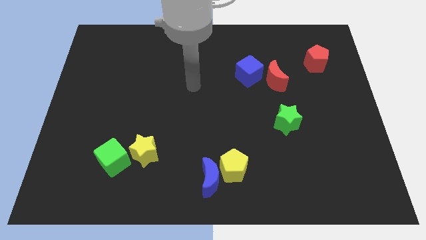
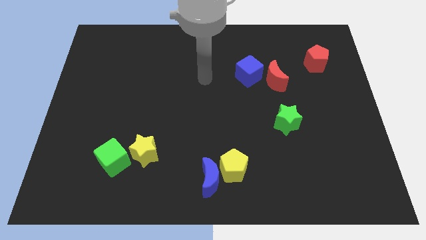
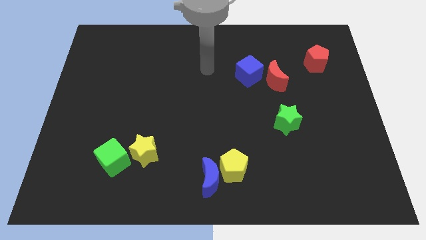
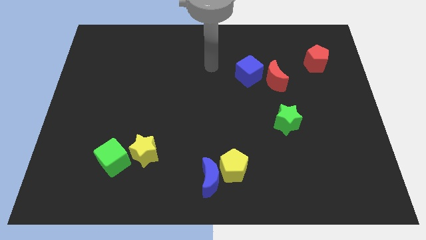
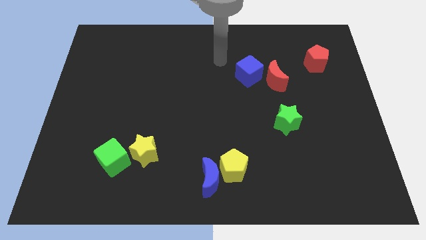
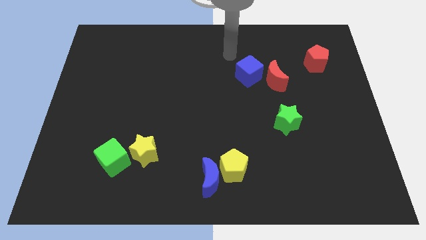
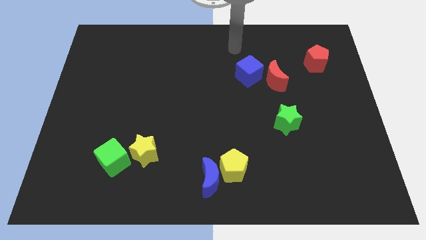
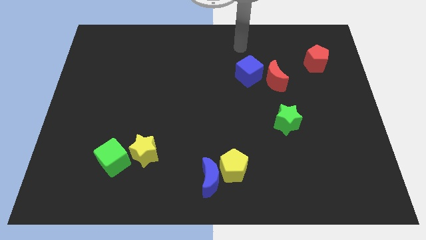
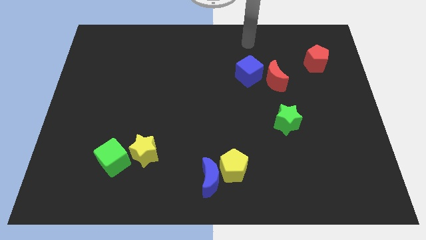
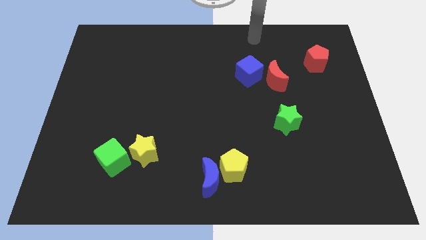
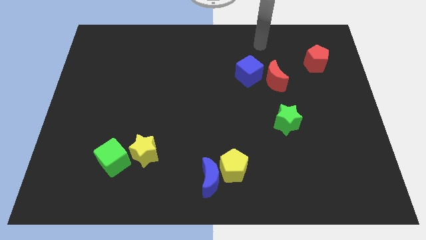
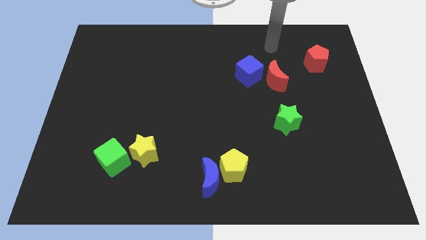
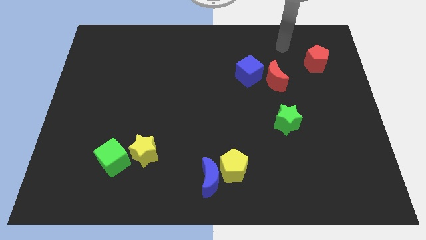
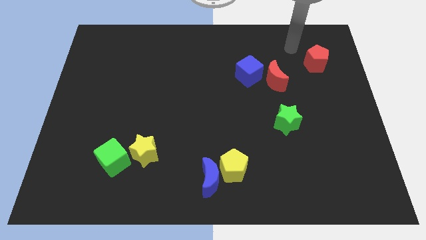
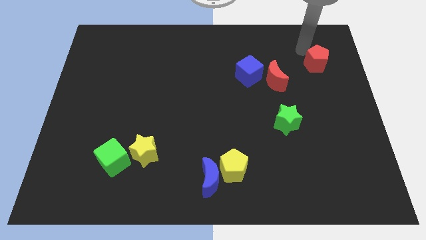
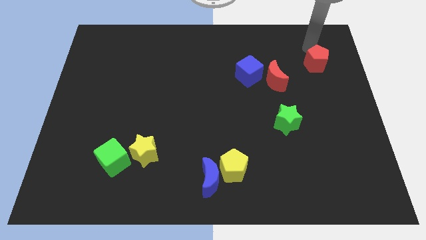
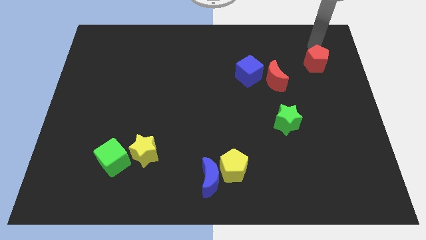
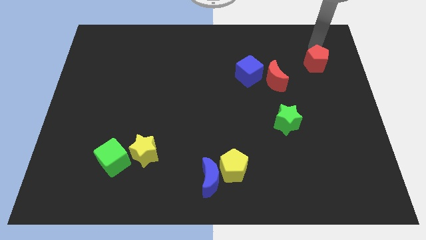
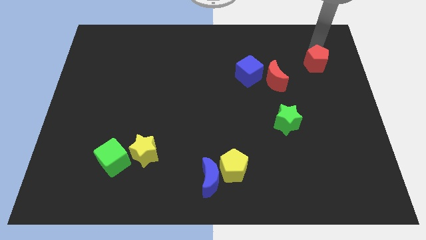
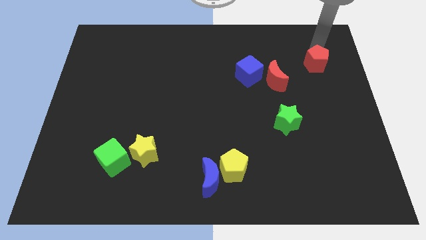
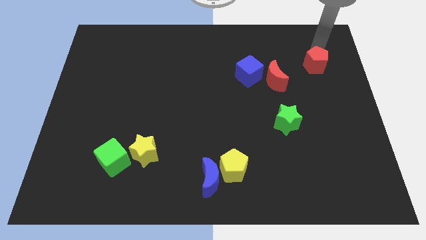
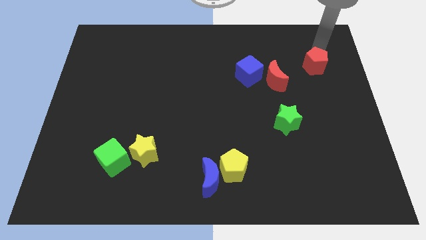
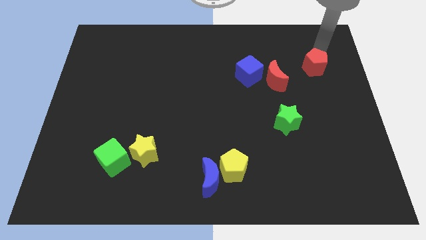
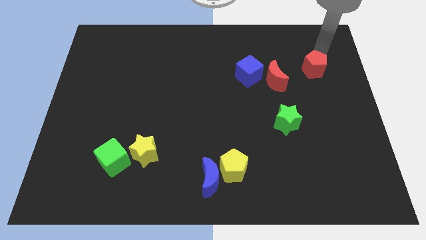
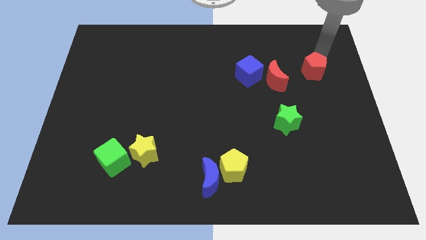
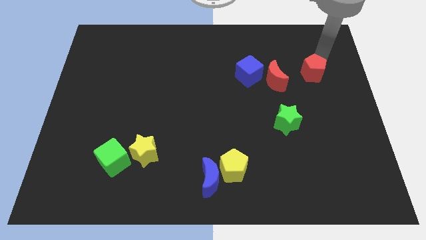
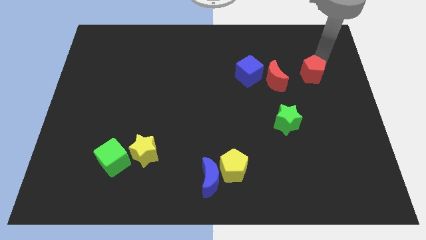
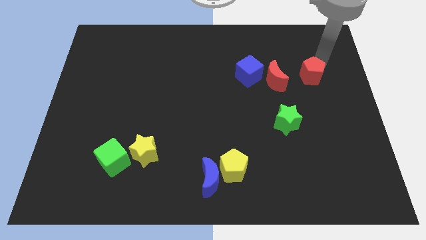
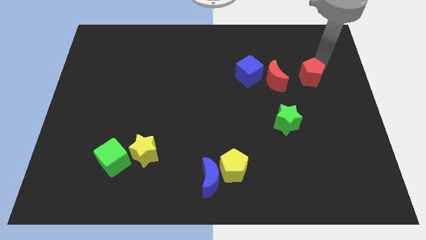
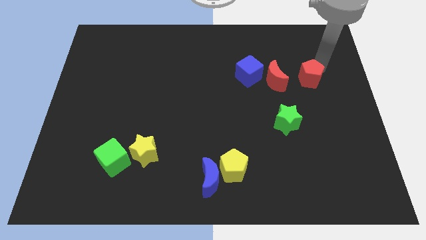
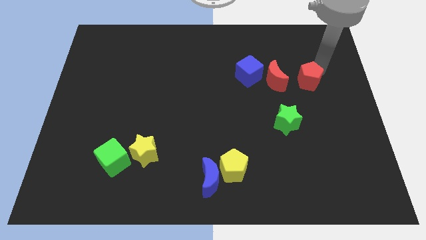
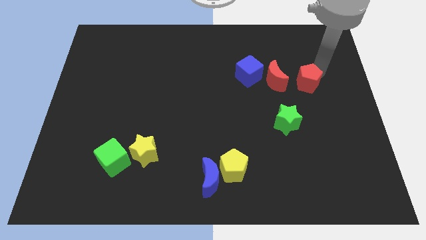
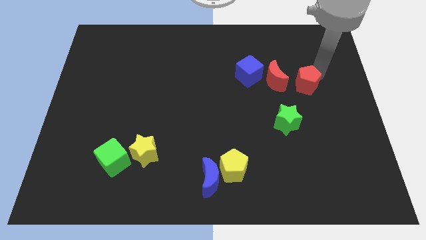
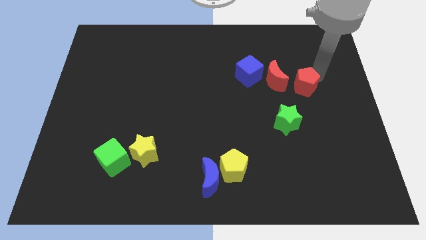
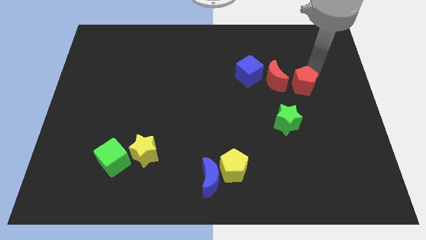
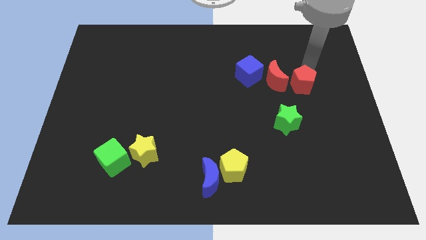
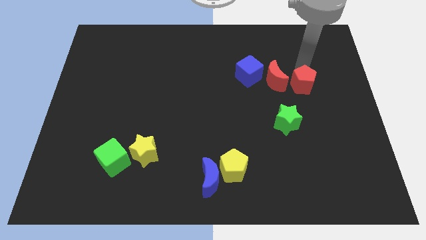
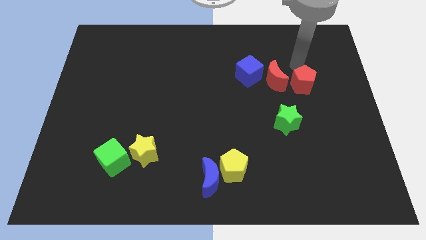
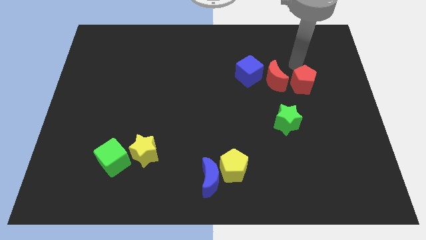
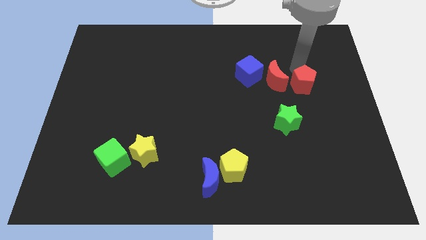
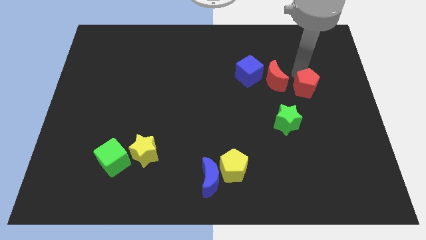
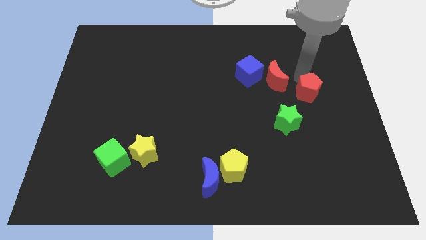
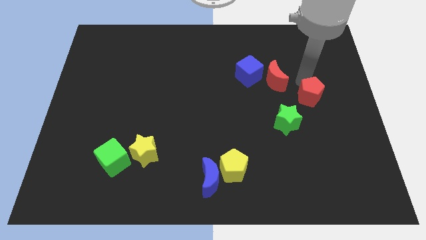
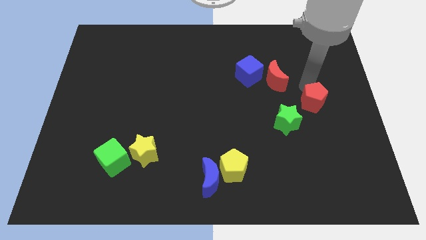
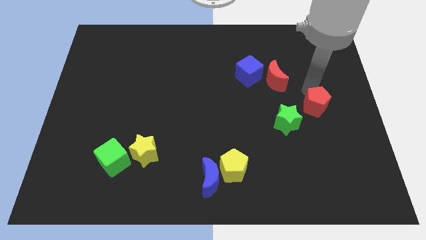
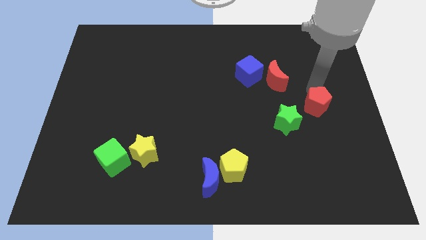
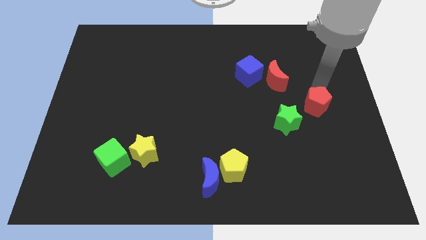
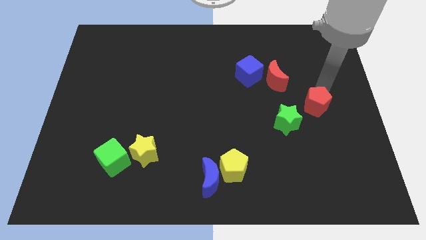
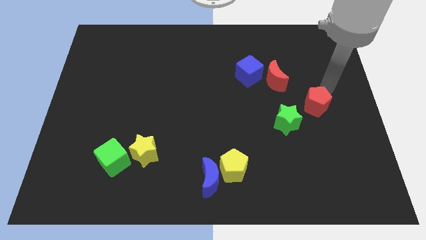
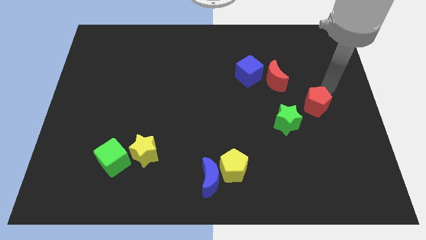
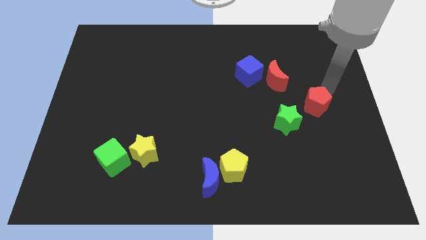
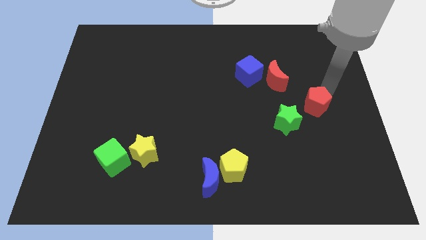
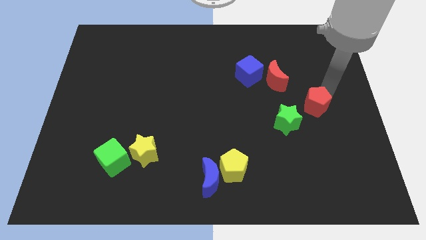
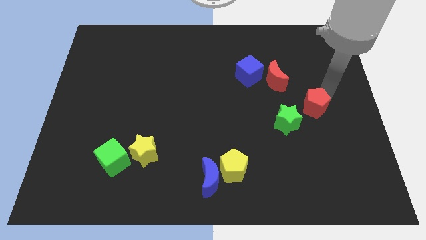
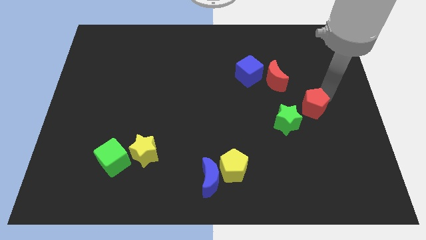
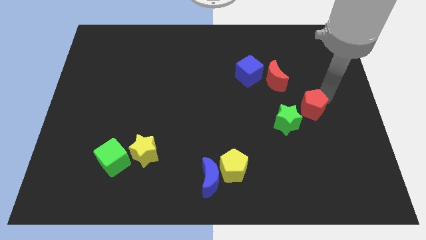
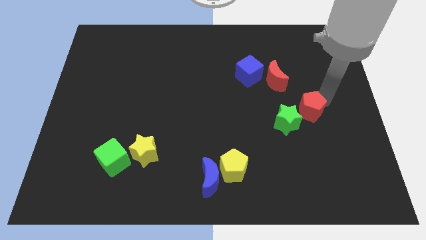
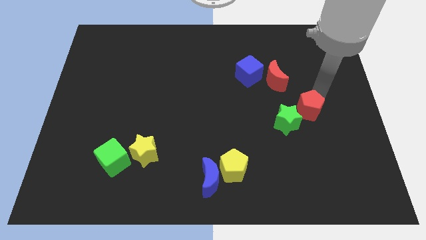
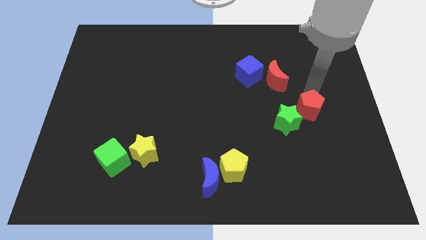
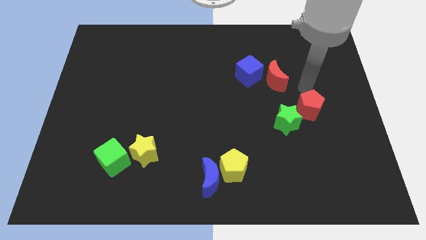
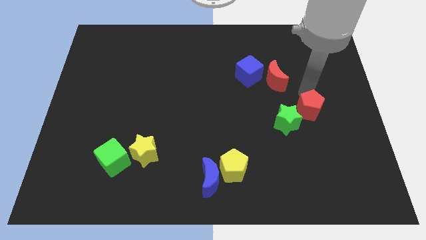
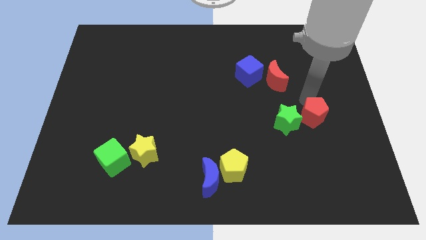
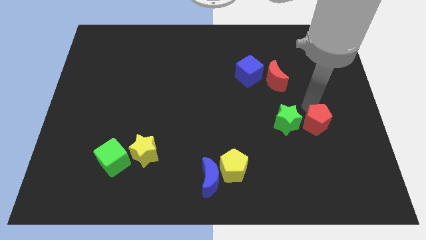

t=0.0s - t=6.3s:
push the red pentagon to the bottom right side of the green star

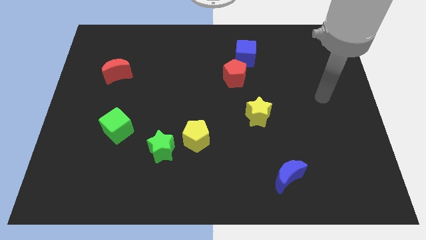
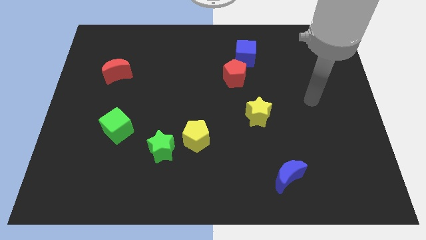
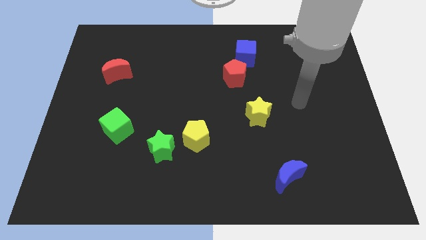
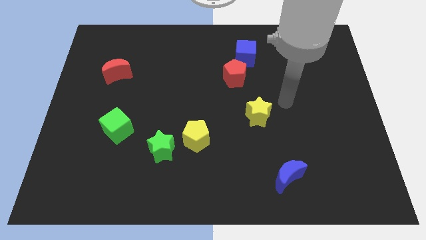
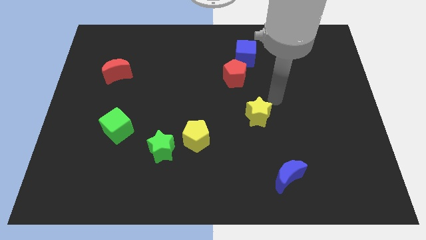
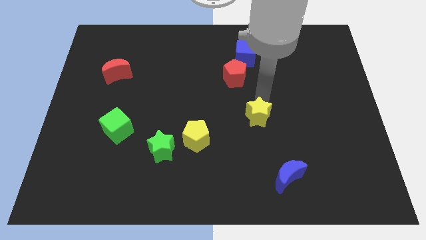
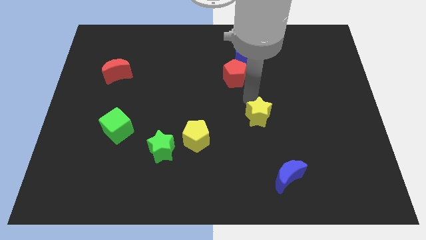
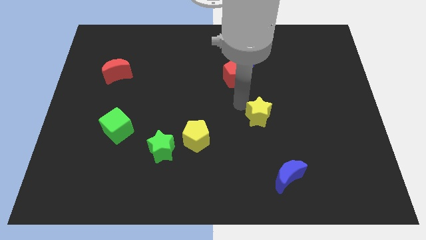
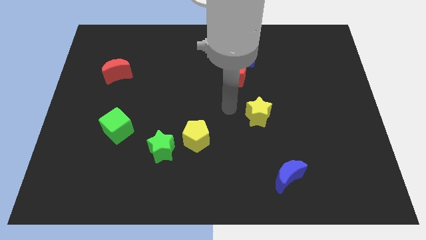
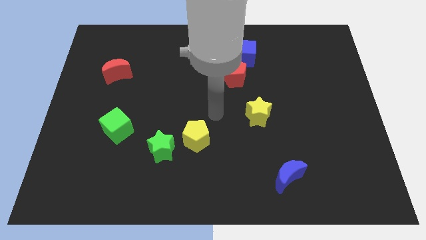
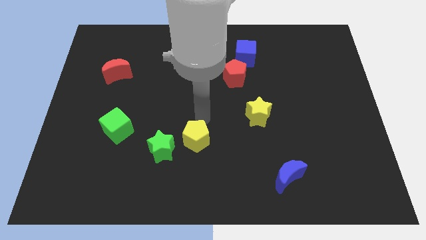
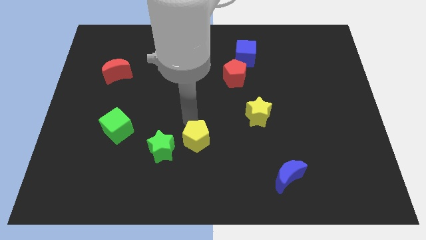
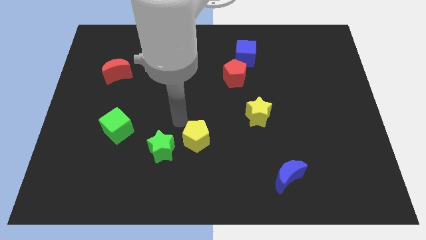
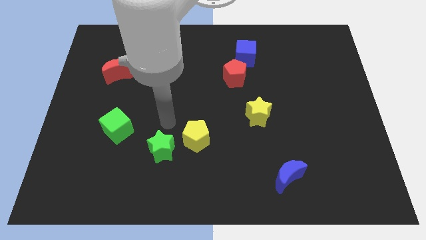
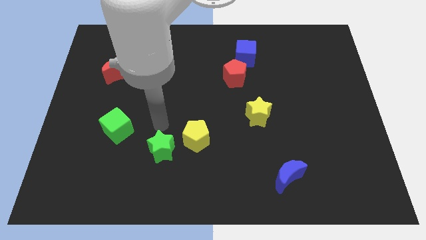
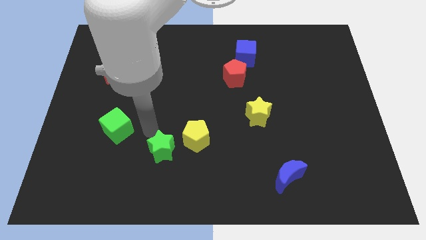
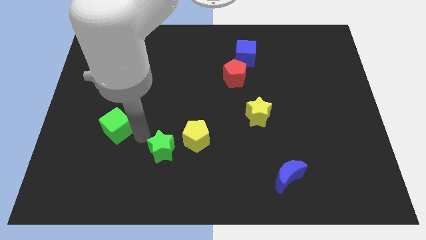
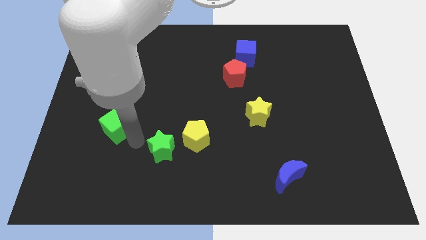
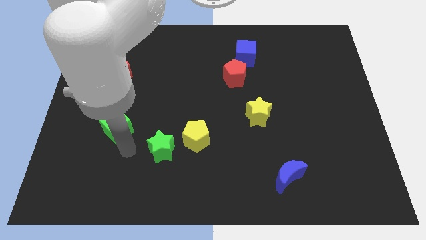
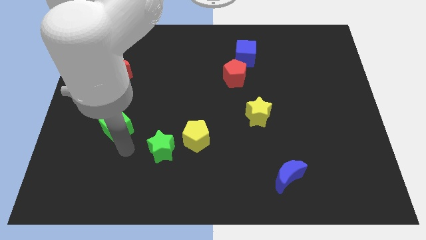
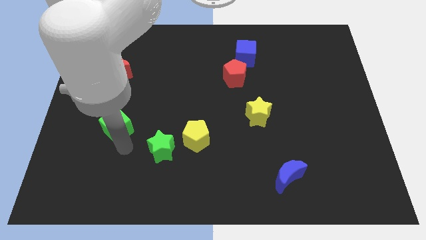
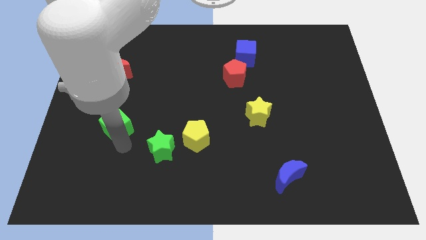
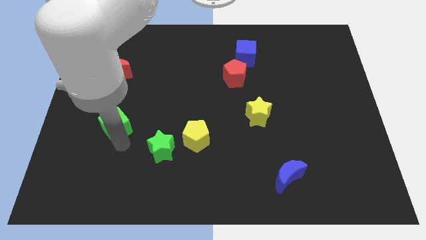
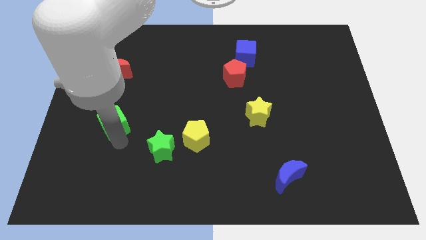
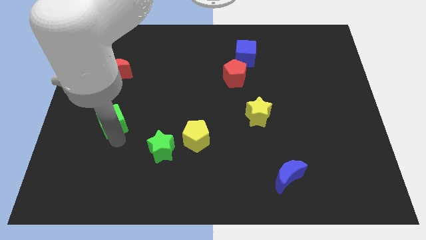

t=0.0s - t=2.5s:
slide the green cube to the bottom of the red moon

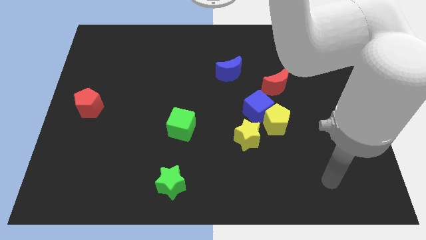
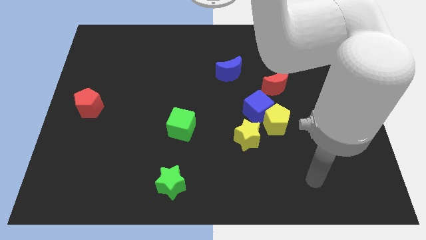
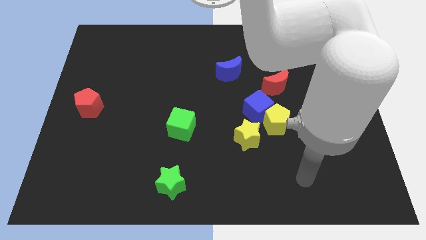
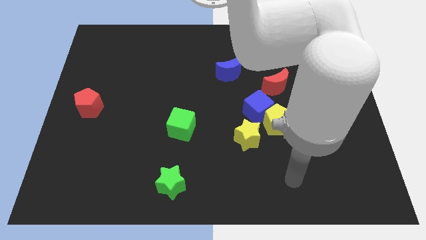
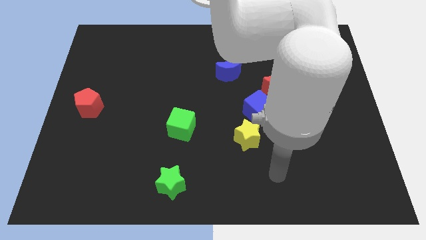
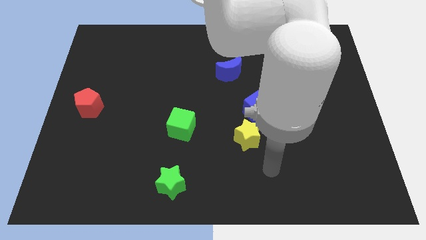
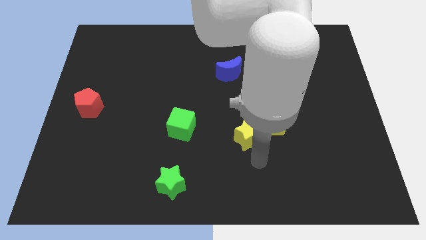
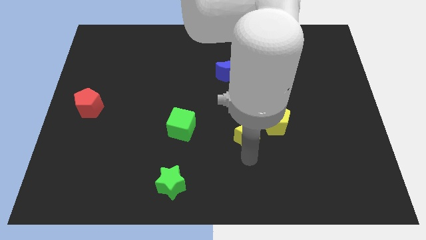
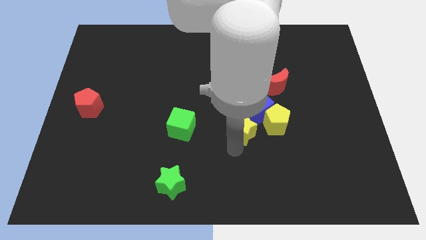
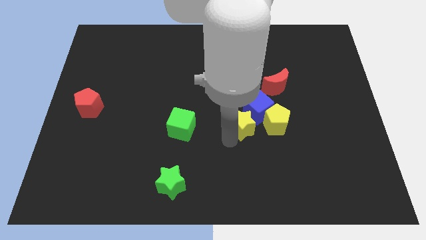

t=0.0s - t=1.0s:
slide the blue cube to the right of the yellow star
